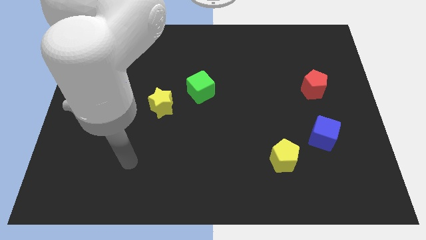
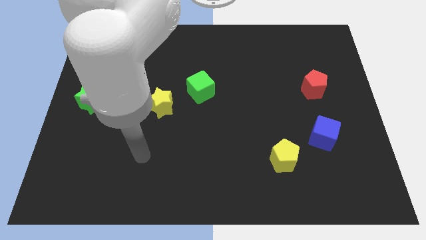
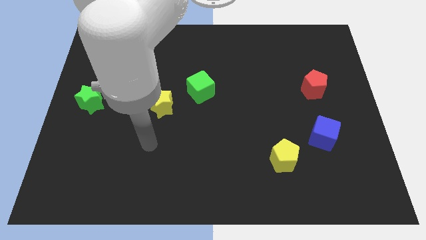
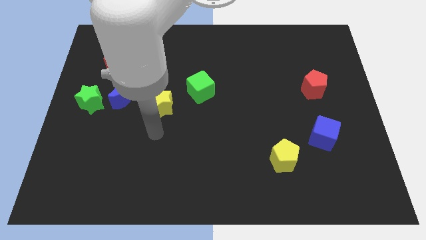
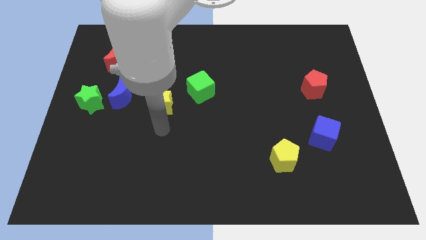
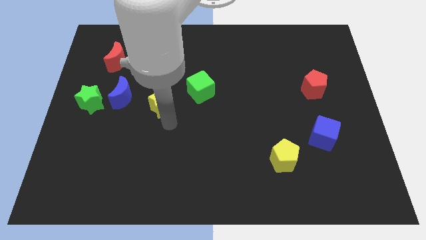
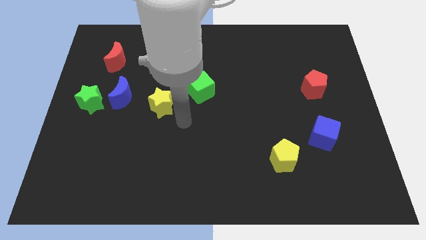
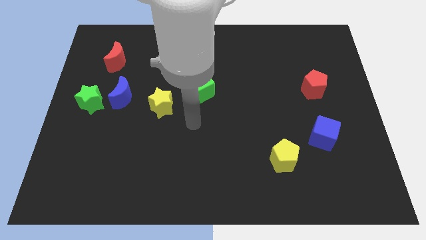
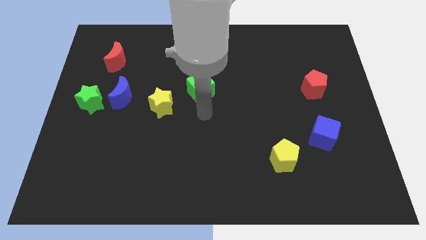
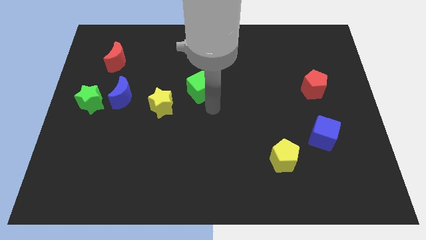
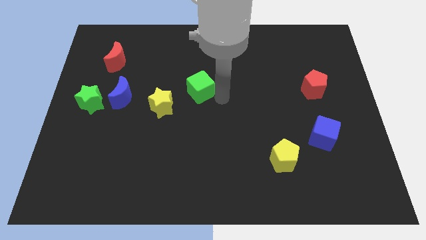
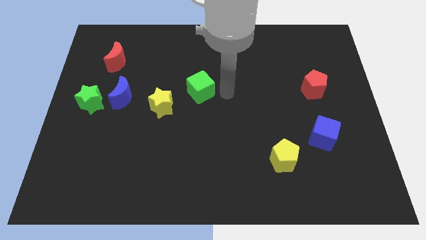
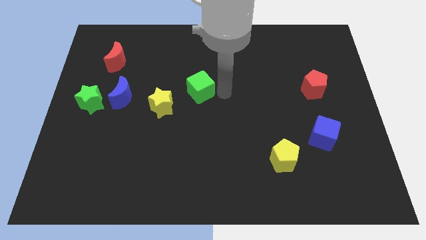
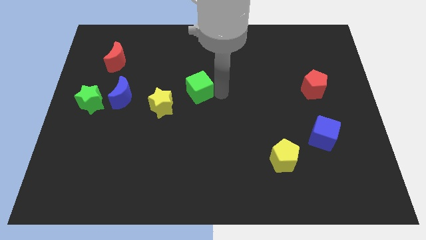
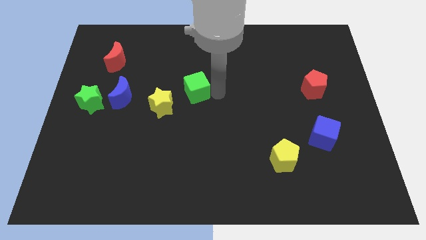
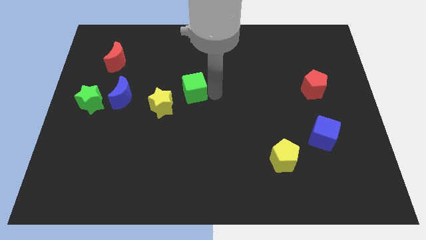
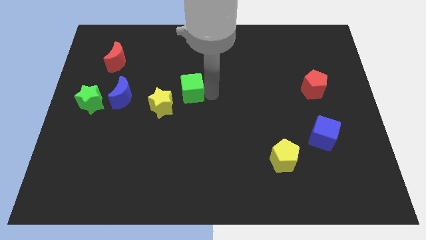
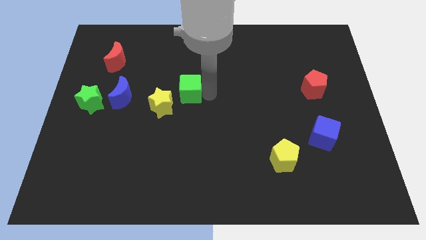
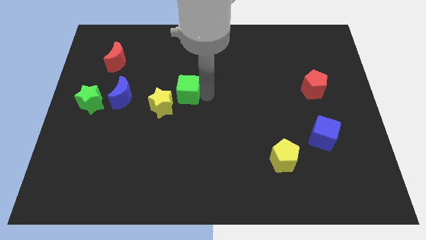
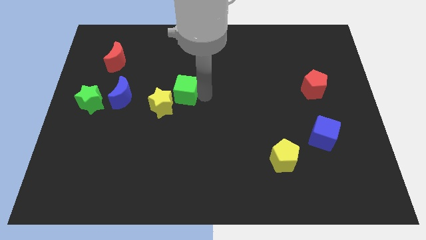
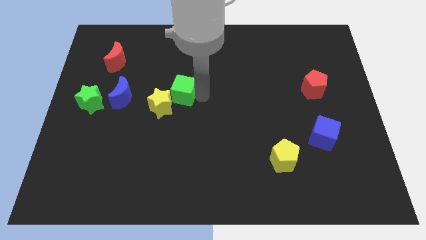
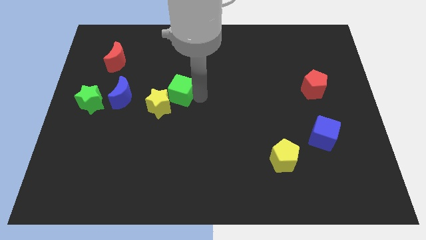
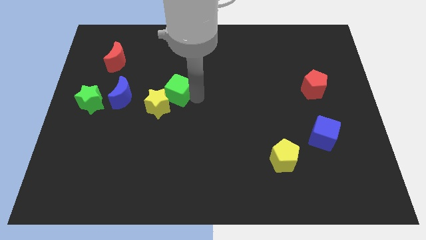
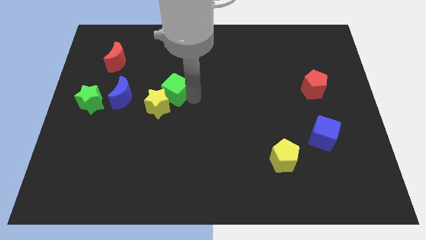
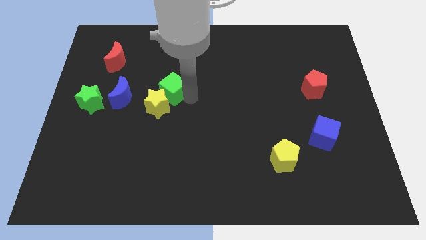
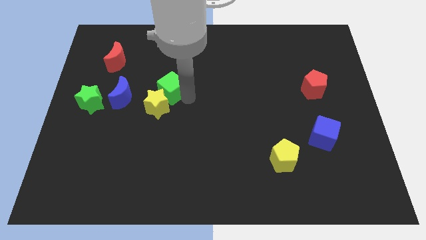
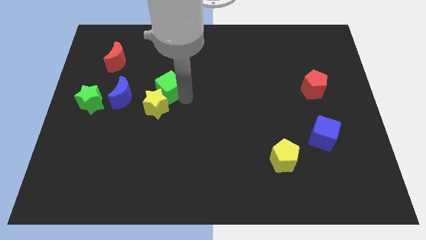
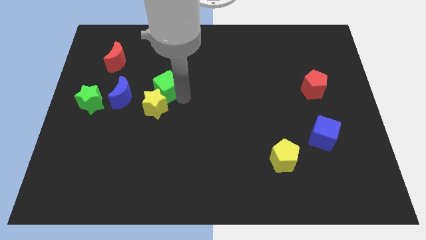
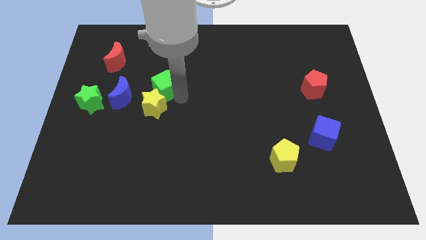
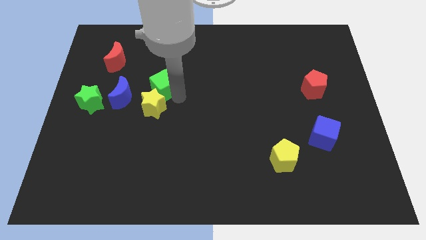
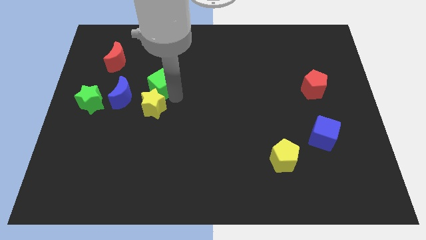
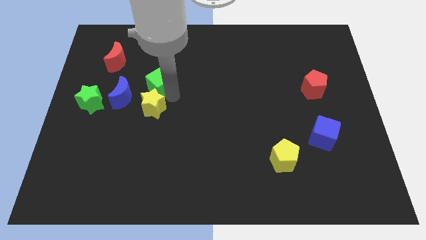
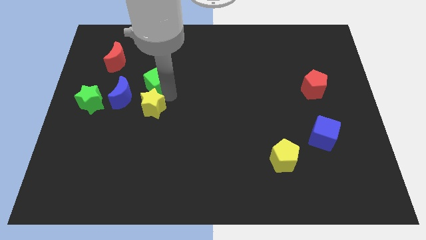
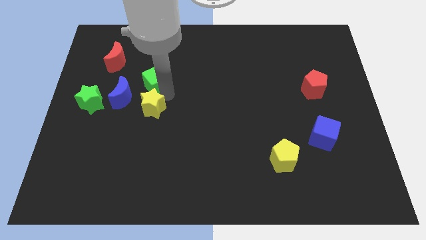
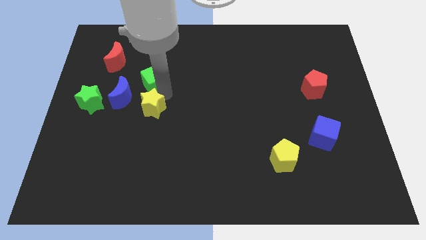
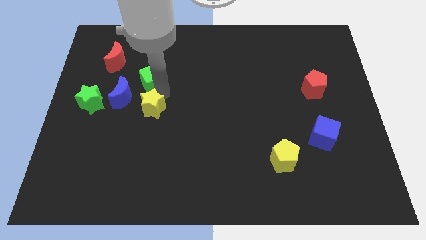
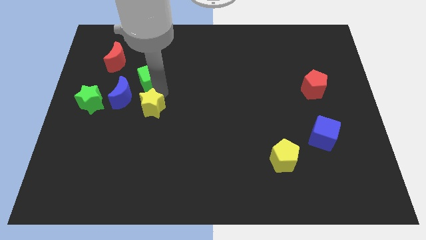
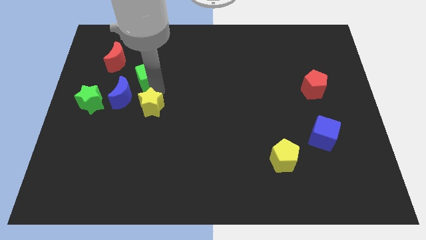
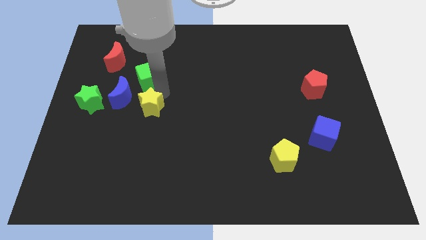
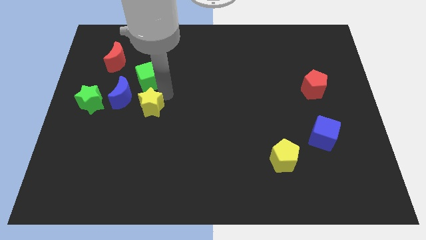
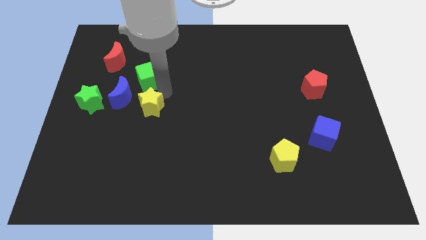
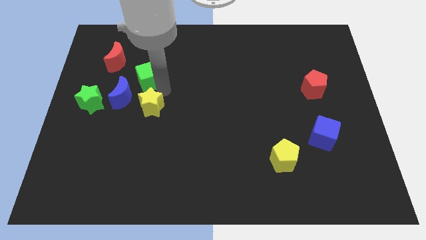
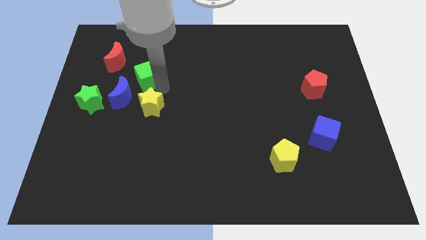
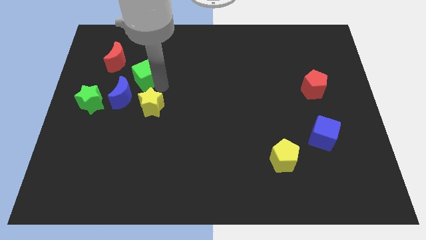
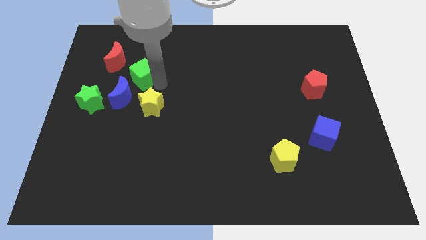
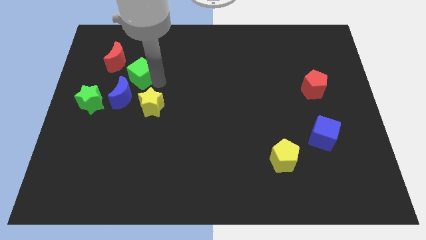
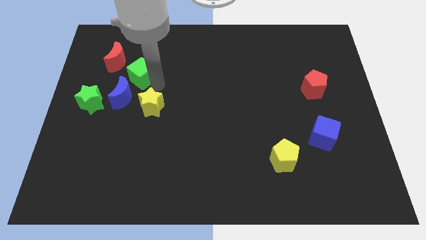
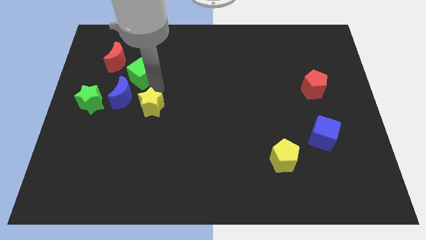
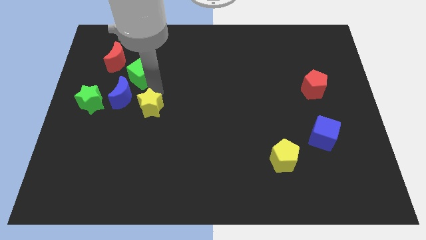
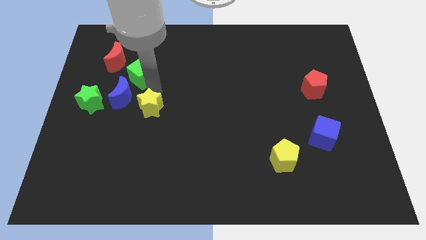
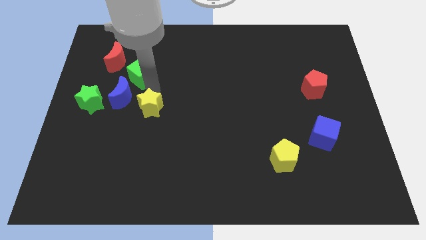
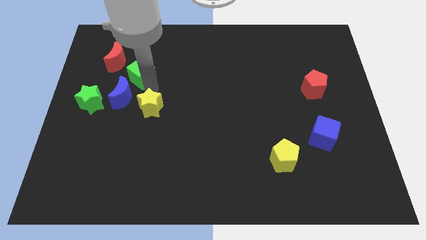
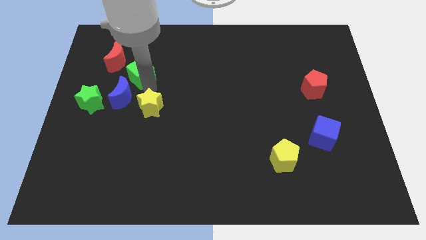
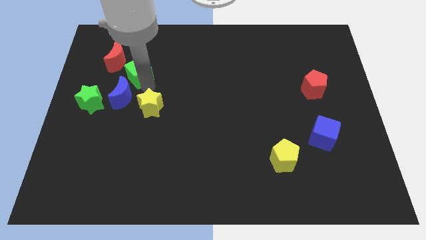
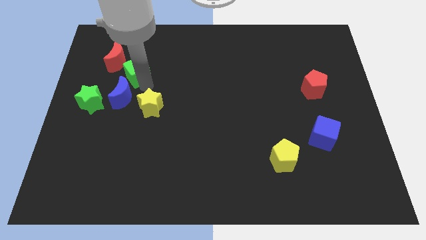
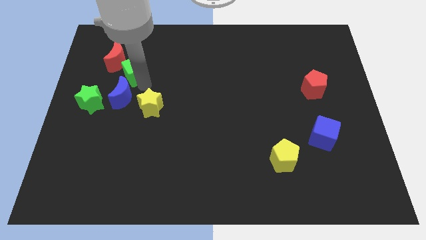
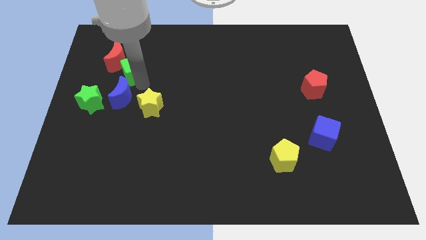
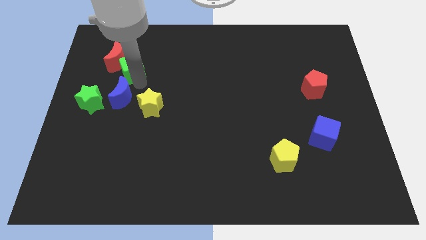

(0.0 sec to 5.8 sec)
put the green cube towards the red moon

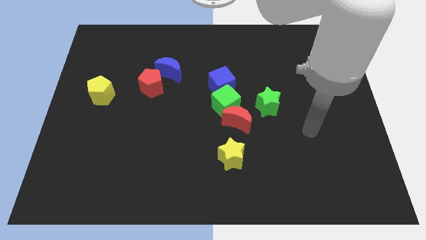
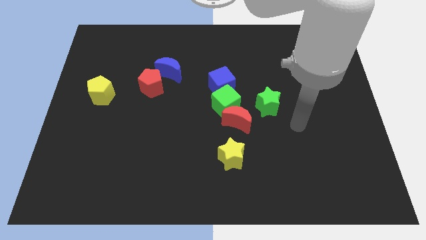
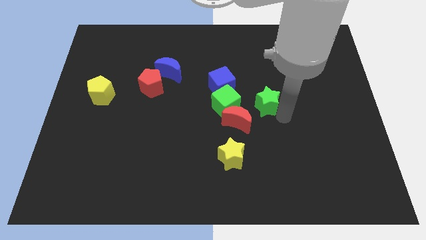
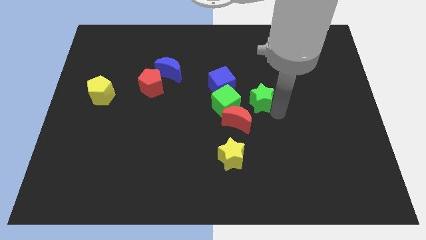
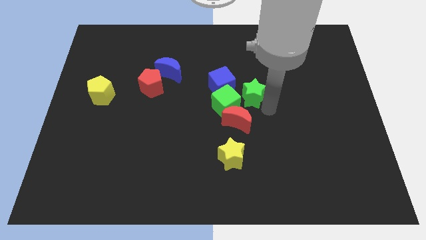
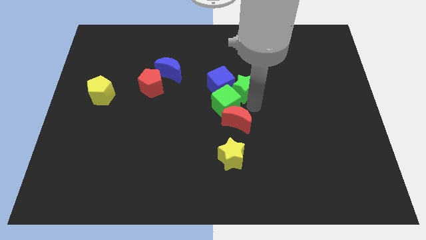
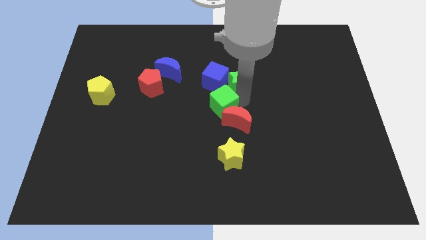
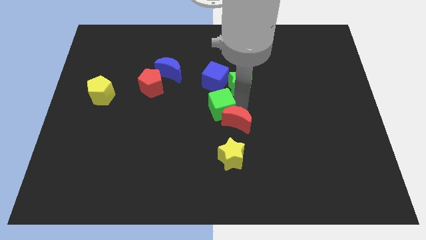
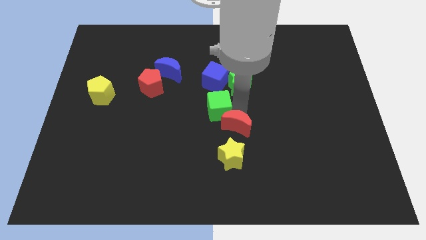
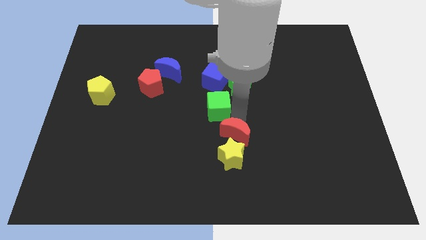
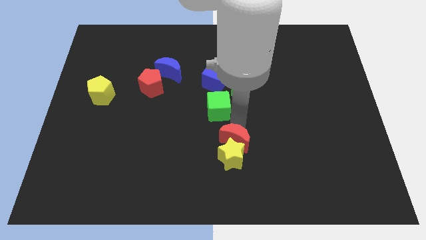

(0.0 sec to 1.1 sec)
put the red moon to the yellow star
